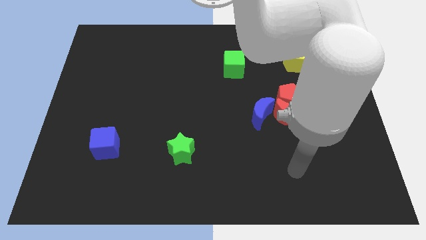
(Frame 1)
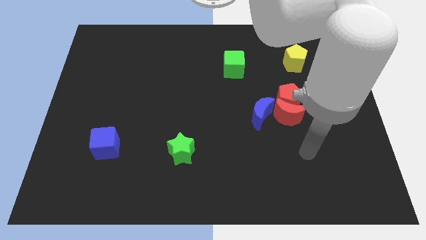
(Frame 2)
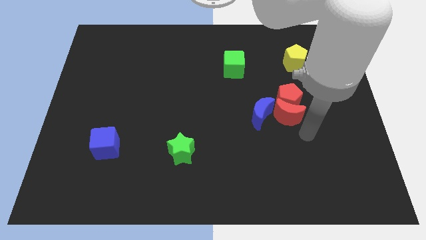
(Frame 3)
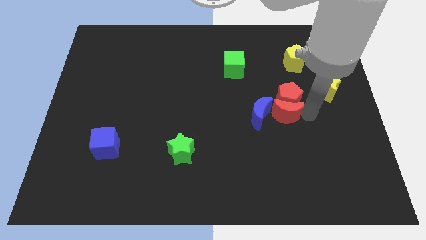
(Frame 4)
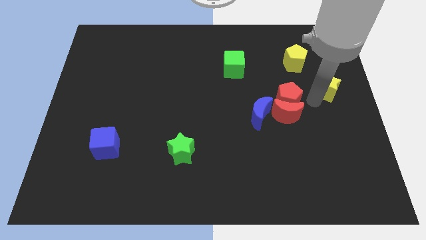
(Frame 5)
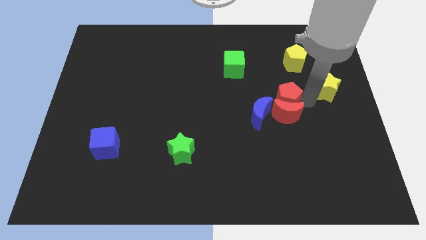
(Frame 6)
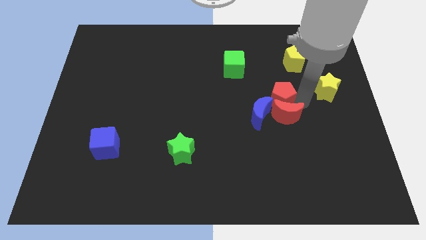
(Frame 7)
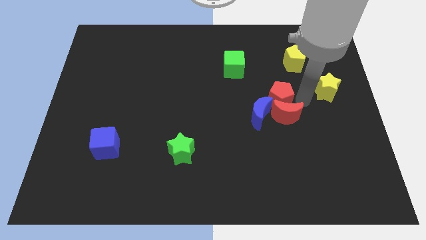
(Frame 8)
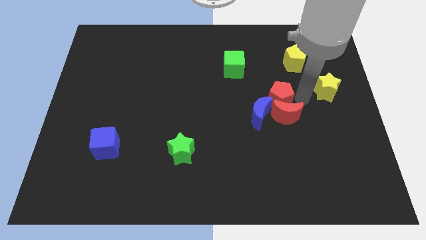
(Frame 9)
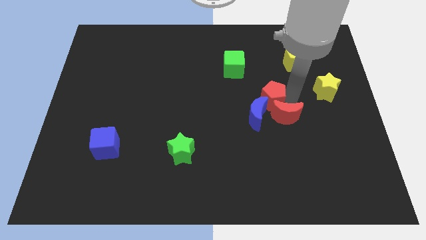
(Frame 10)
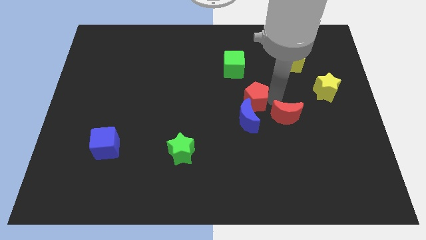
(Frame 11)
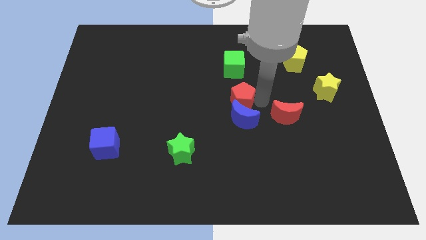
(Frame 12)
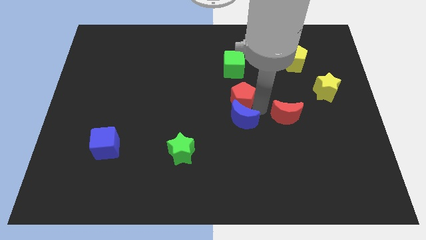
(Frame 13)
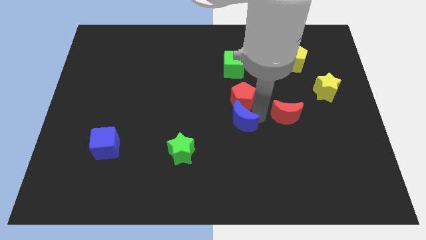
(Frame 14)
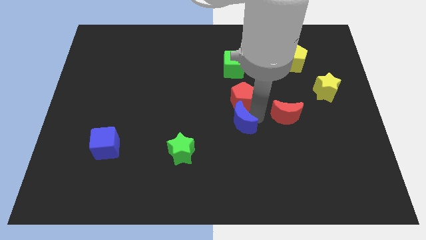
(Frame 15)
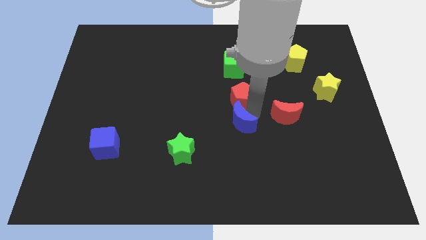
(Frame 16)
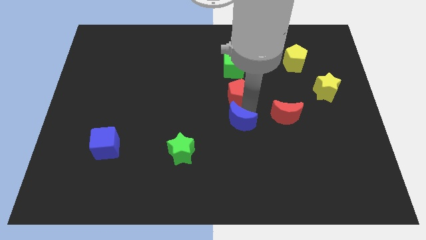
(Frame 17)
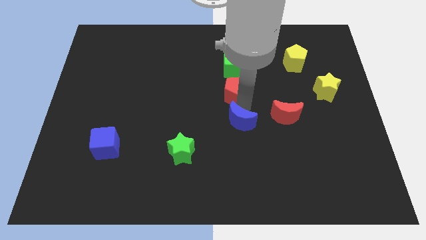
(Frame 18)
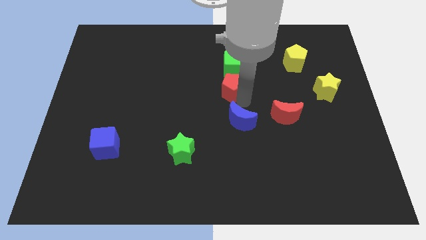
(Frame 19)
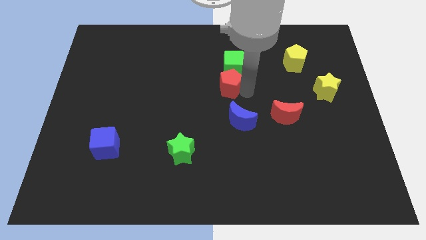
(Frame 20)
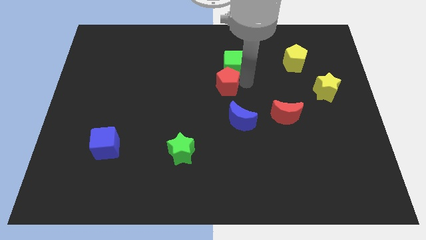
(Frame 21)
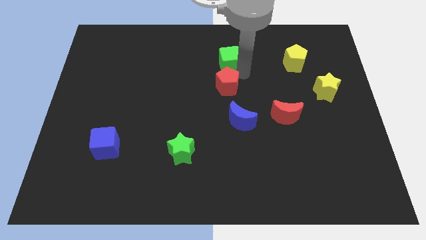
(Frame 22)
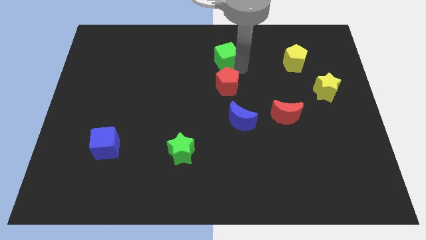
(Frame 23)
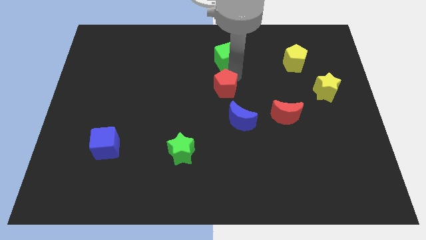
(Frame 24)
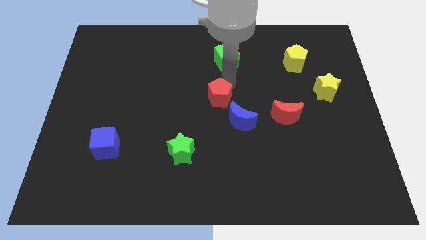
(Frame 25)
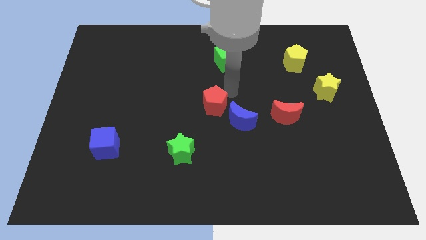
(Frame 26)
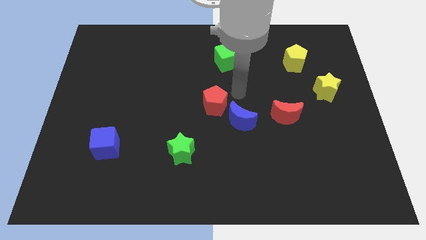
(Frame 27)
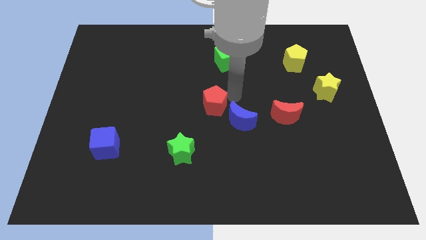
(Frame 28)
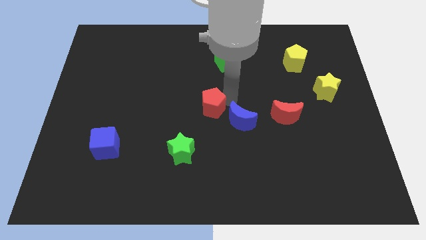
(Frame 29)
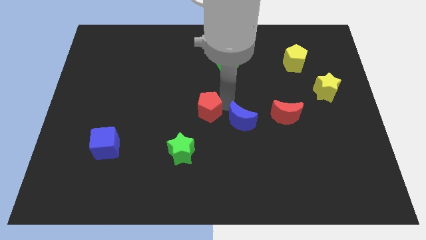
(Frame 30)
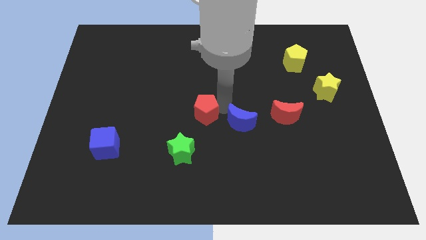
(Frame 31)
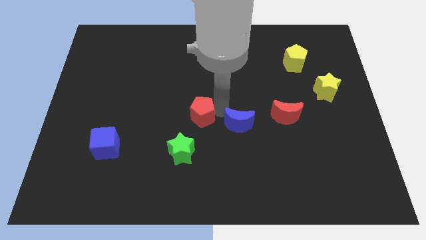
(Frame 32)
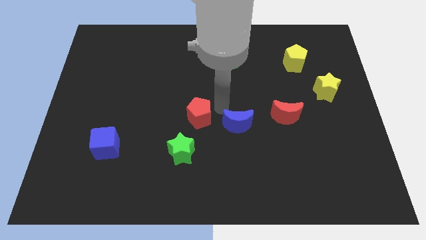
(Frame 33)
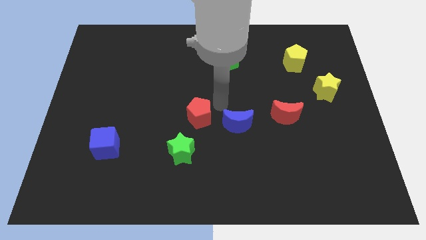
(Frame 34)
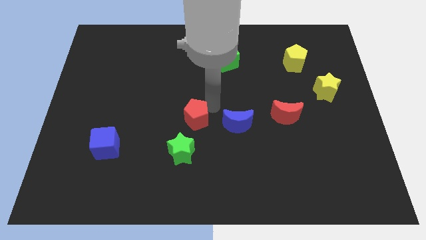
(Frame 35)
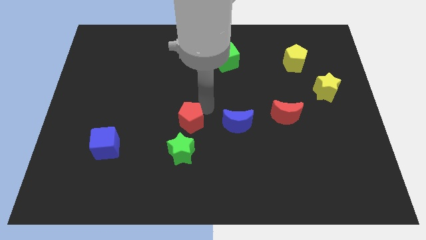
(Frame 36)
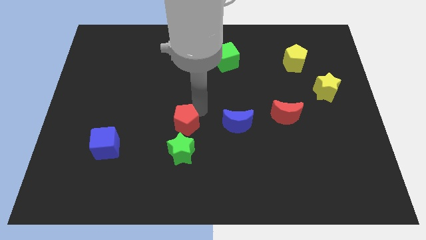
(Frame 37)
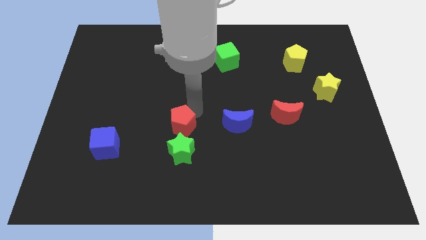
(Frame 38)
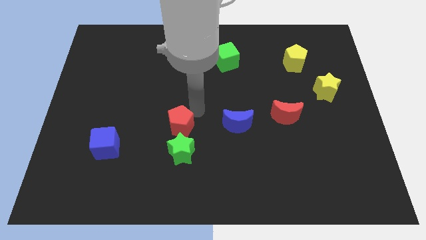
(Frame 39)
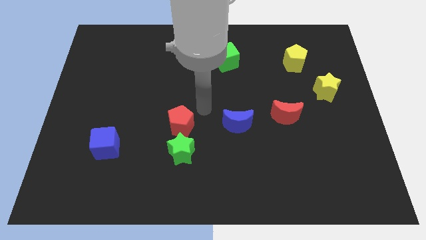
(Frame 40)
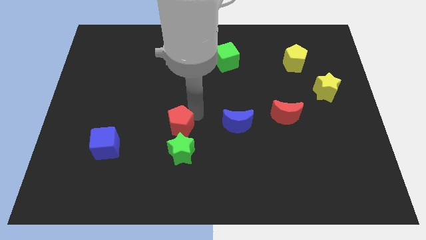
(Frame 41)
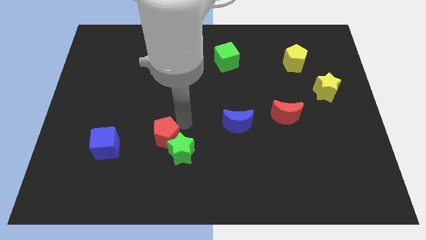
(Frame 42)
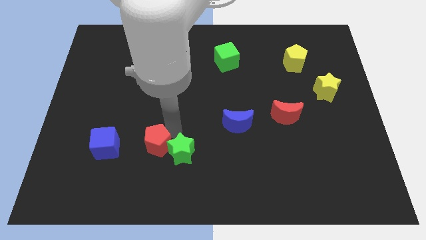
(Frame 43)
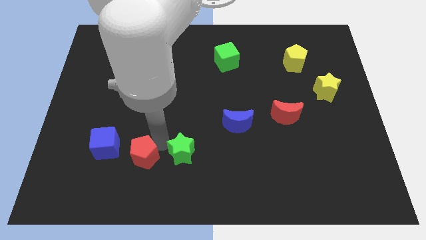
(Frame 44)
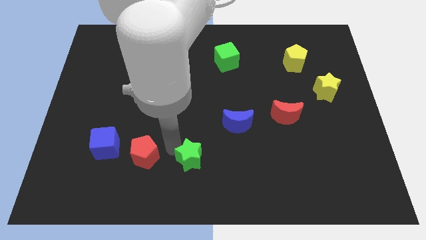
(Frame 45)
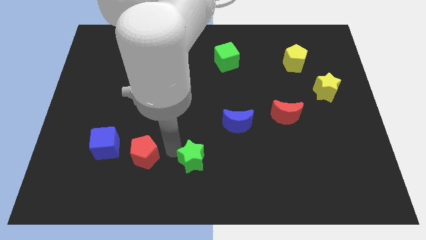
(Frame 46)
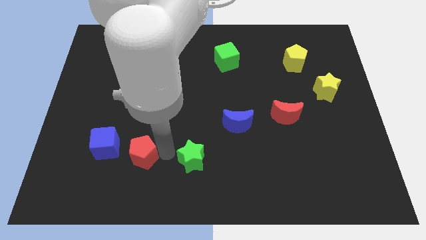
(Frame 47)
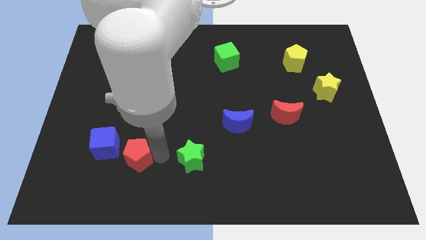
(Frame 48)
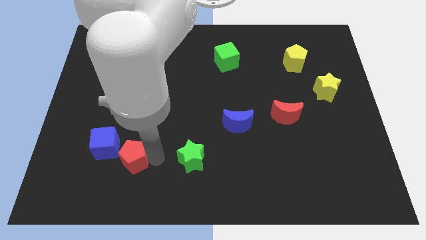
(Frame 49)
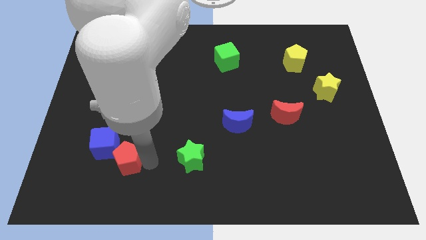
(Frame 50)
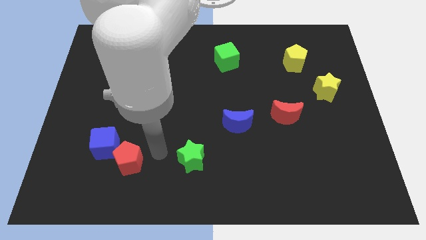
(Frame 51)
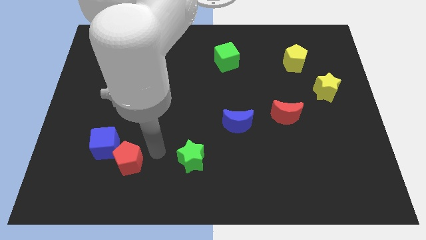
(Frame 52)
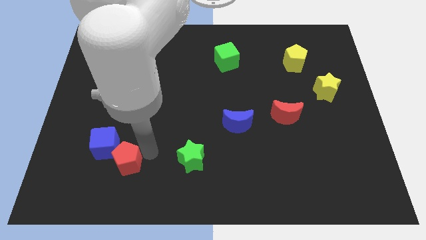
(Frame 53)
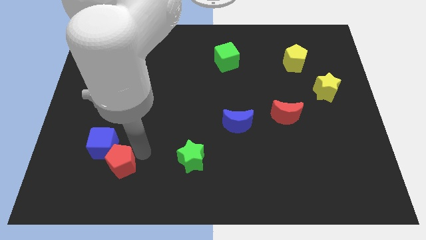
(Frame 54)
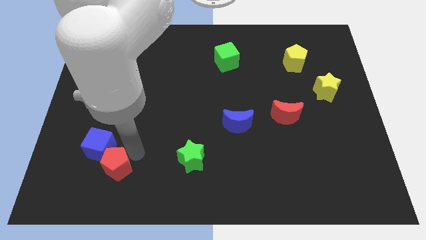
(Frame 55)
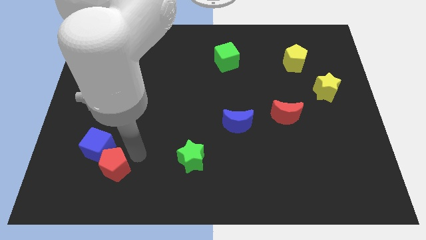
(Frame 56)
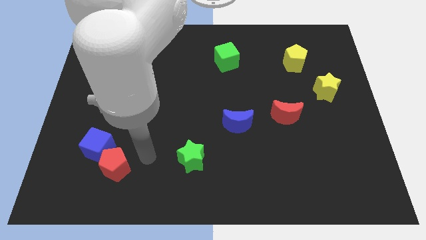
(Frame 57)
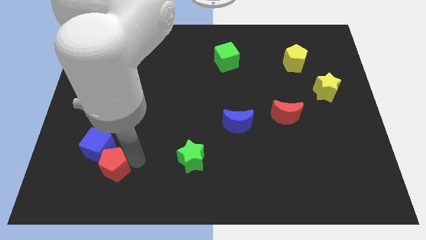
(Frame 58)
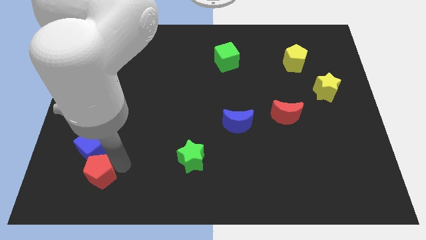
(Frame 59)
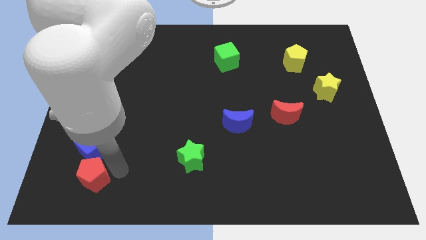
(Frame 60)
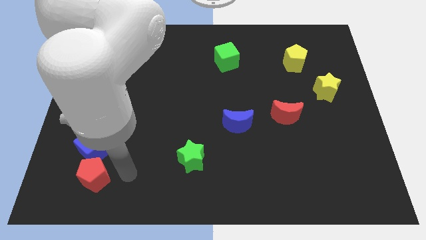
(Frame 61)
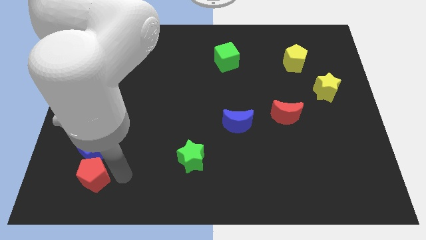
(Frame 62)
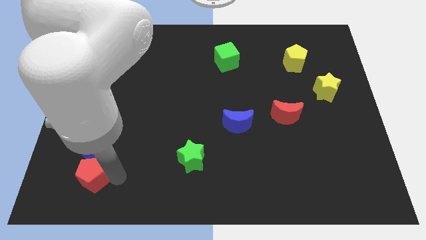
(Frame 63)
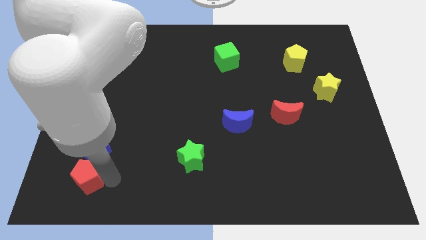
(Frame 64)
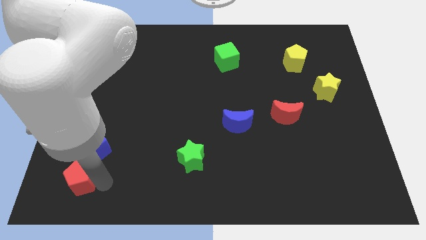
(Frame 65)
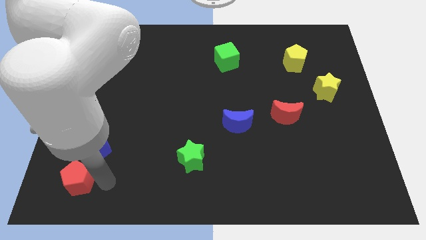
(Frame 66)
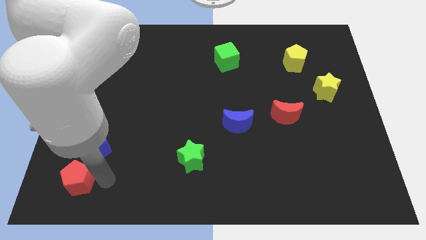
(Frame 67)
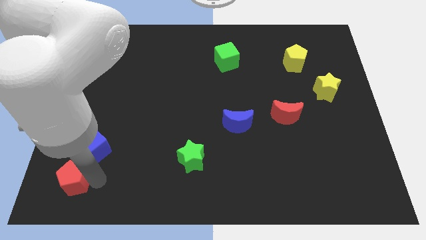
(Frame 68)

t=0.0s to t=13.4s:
push the red pentagon to the bottom left corner
